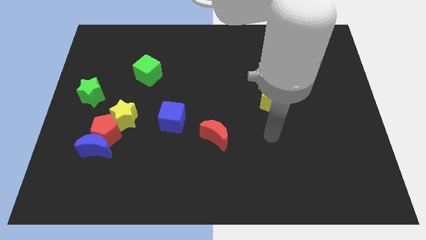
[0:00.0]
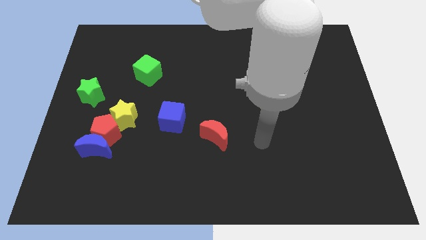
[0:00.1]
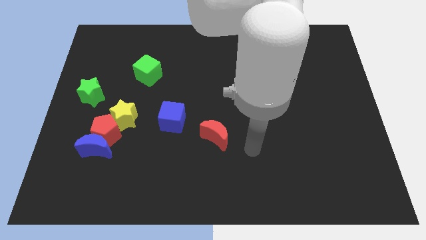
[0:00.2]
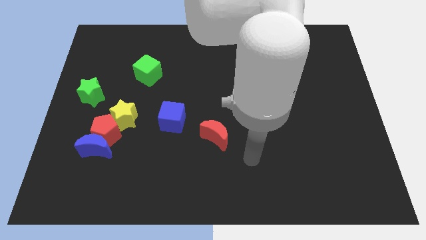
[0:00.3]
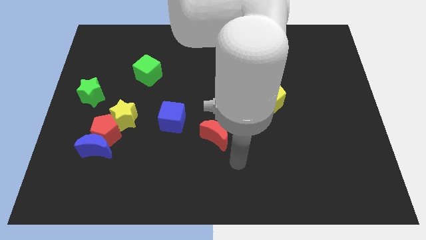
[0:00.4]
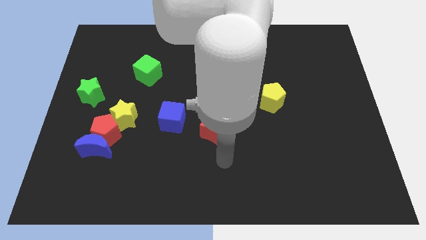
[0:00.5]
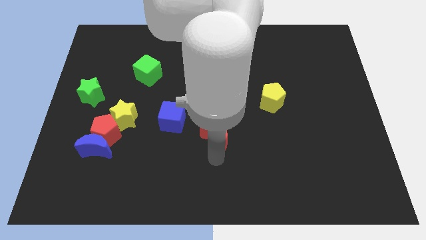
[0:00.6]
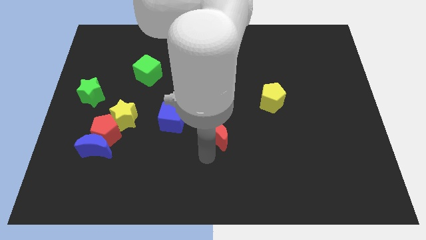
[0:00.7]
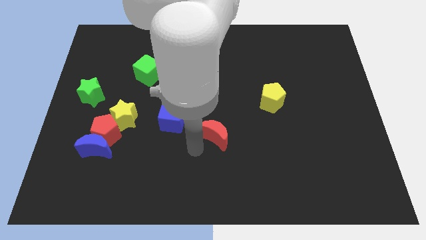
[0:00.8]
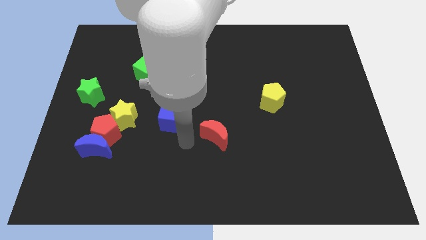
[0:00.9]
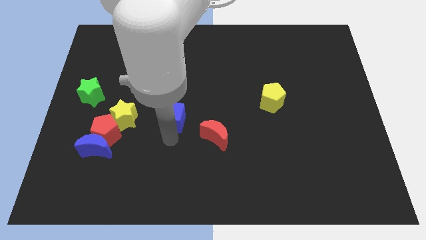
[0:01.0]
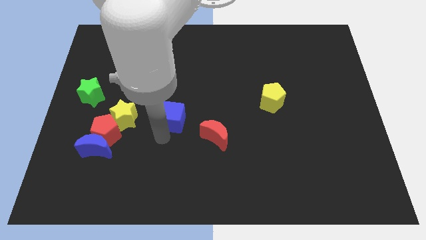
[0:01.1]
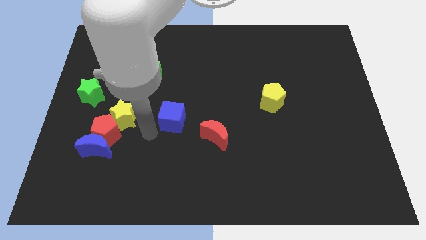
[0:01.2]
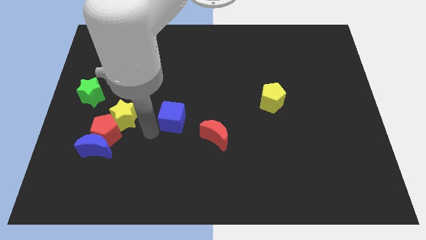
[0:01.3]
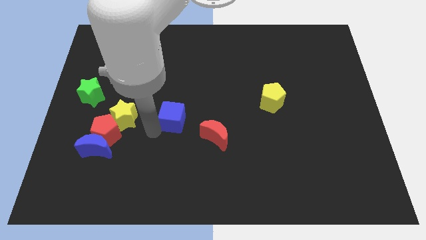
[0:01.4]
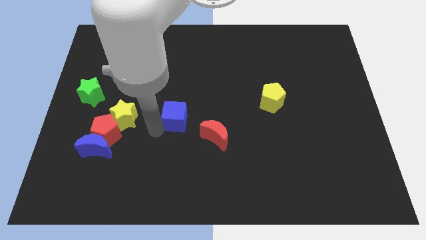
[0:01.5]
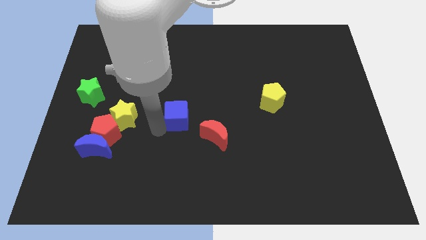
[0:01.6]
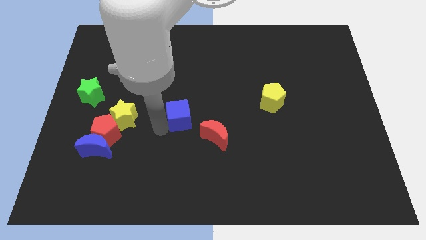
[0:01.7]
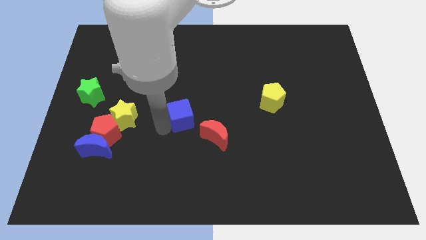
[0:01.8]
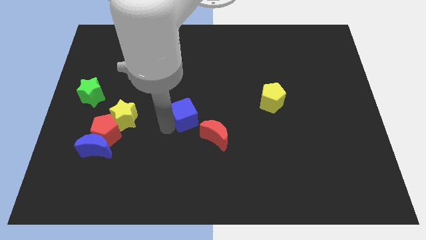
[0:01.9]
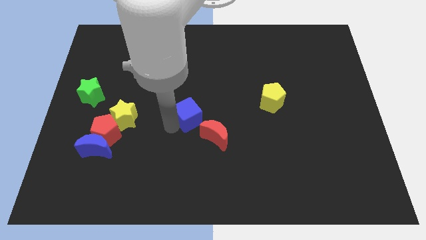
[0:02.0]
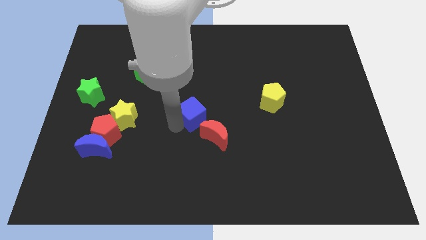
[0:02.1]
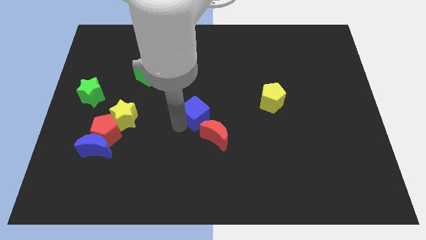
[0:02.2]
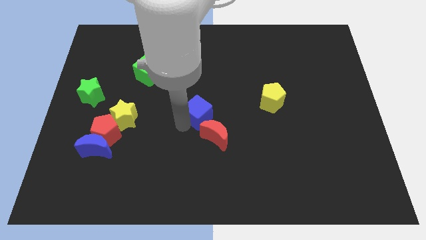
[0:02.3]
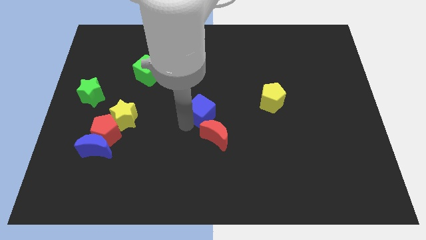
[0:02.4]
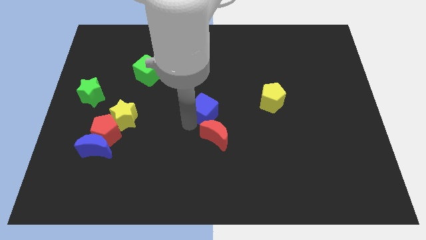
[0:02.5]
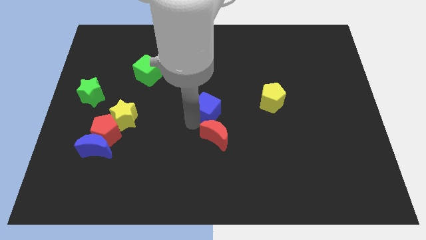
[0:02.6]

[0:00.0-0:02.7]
move the blue cube a little up and to the right diagonally

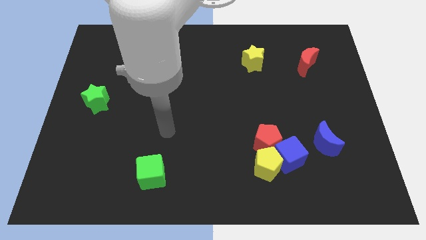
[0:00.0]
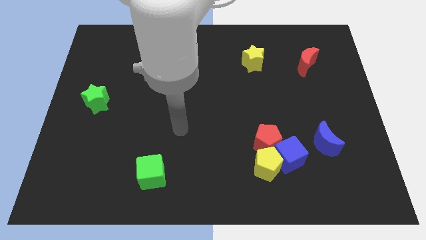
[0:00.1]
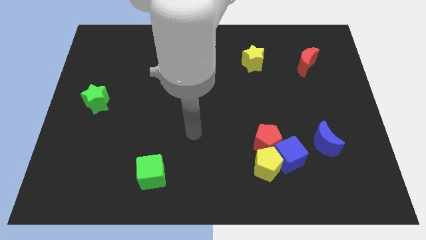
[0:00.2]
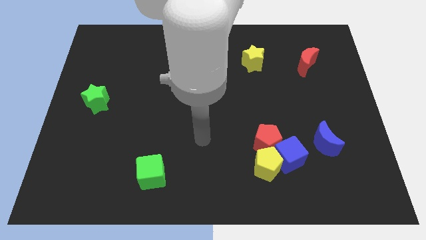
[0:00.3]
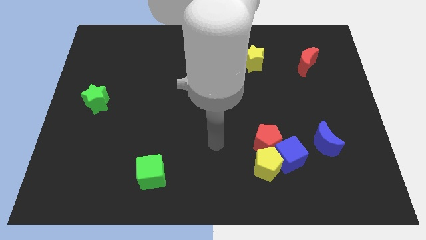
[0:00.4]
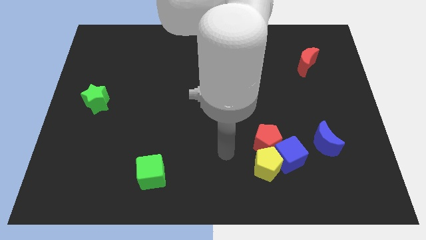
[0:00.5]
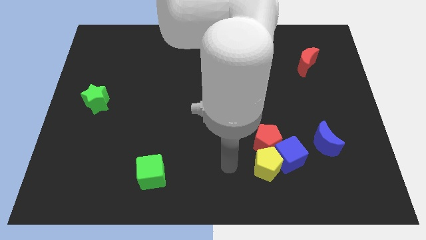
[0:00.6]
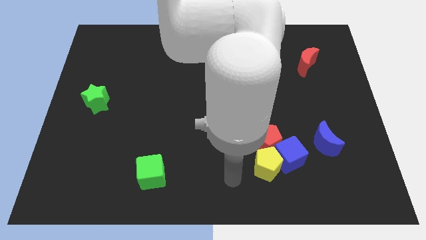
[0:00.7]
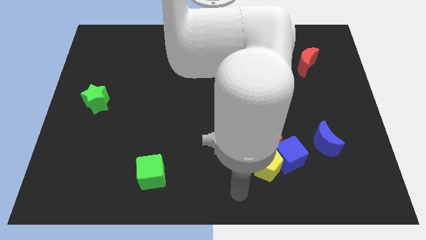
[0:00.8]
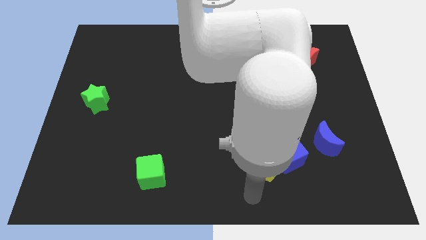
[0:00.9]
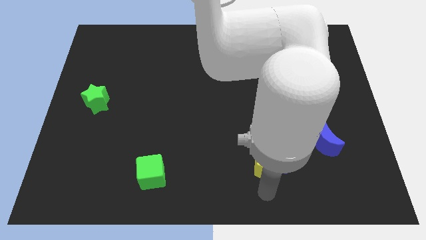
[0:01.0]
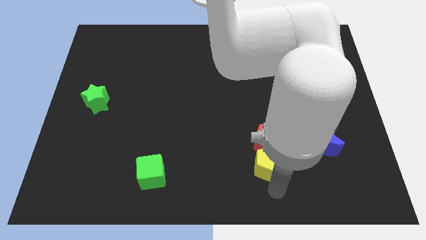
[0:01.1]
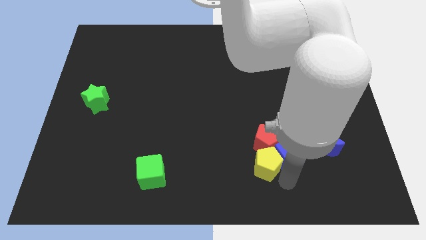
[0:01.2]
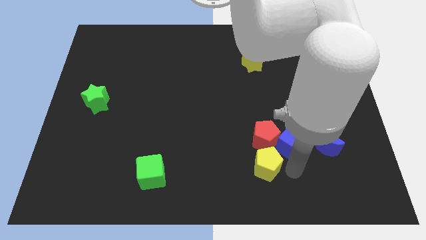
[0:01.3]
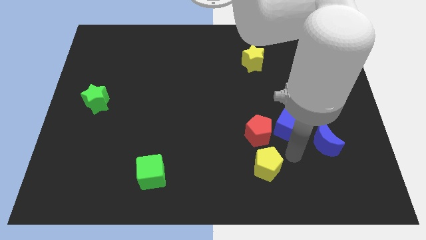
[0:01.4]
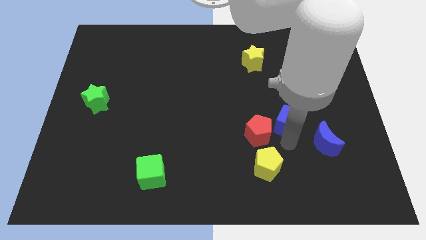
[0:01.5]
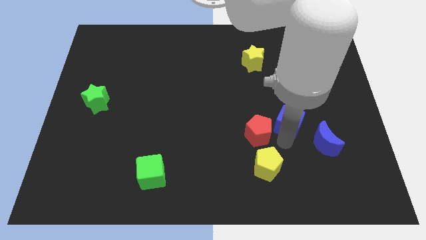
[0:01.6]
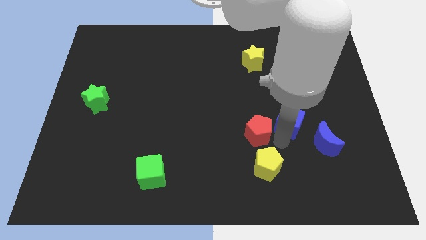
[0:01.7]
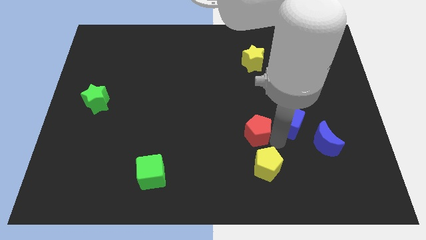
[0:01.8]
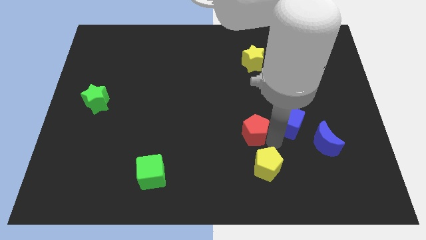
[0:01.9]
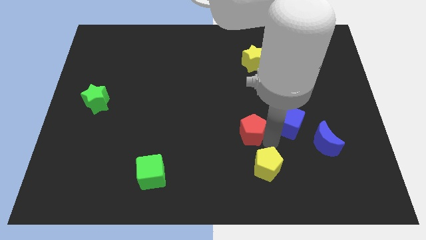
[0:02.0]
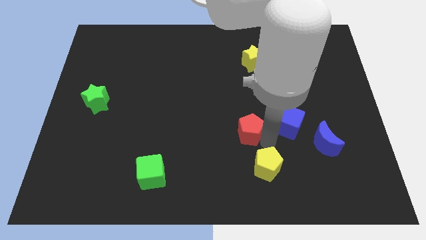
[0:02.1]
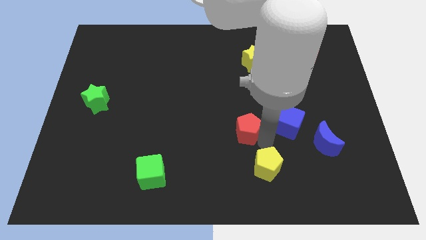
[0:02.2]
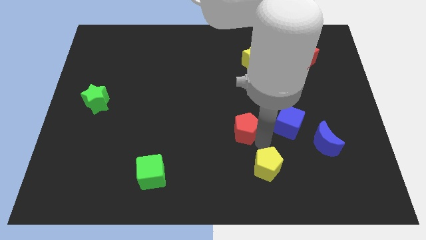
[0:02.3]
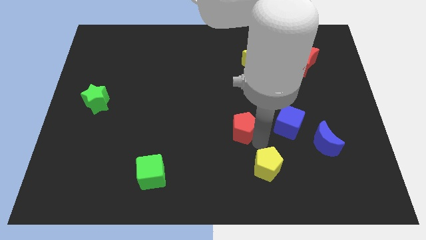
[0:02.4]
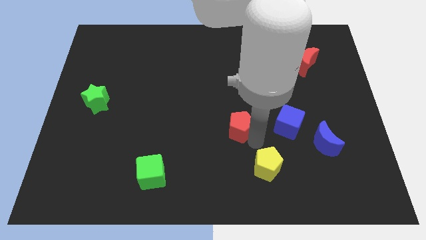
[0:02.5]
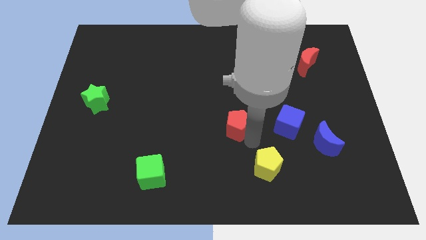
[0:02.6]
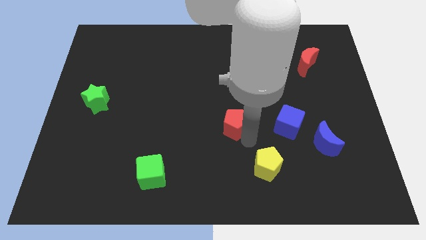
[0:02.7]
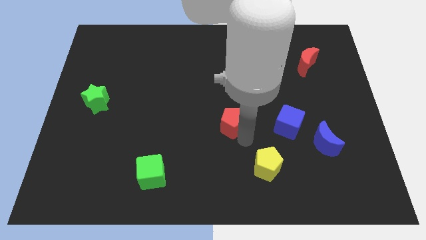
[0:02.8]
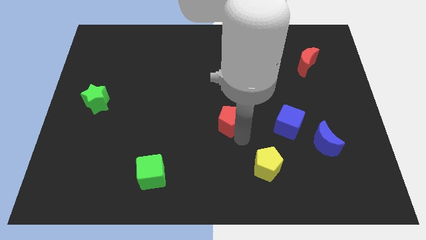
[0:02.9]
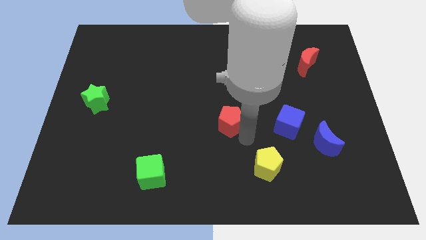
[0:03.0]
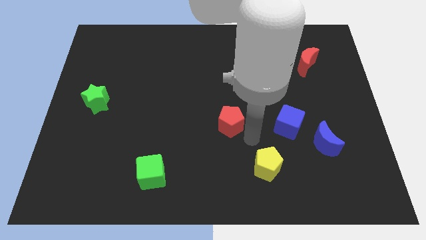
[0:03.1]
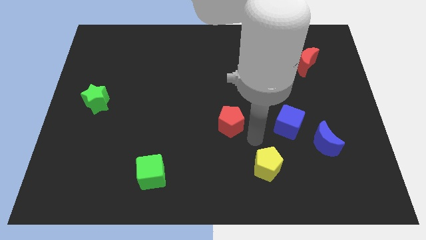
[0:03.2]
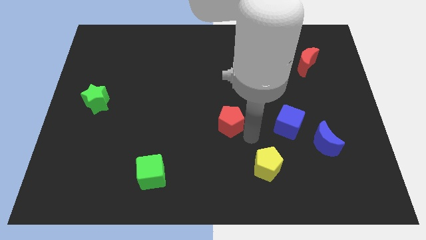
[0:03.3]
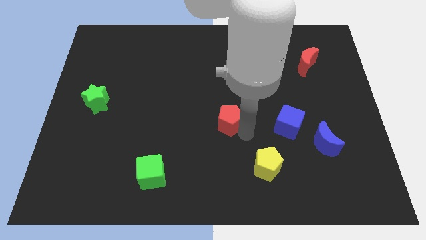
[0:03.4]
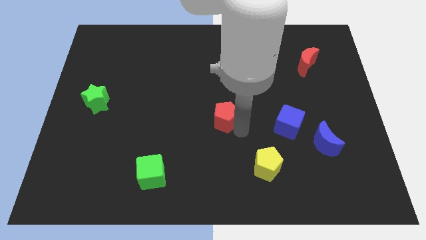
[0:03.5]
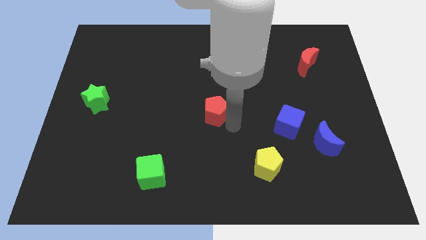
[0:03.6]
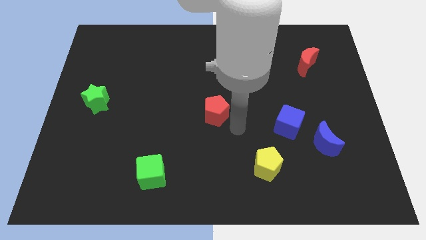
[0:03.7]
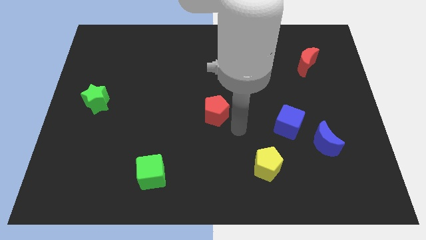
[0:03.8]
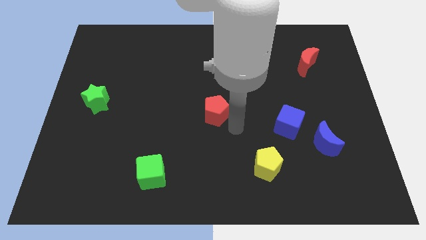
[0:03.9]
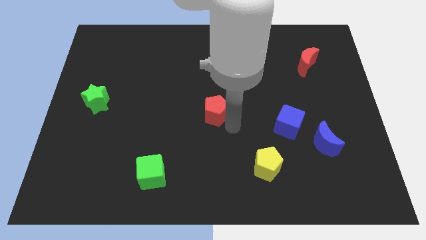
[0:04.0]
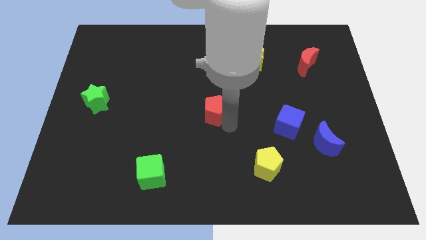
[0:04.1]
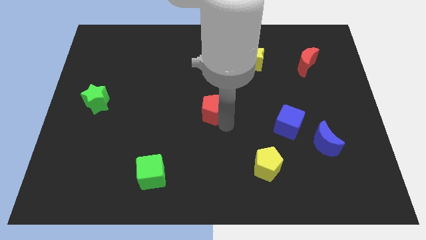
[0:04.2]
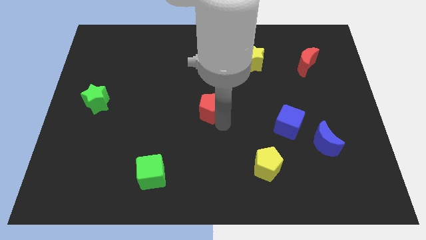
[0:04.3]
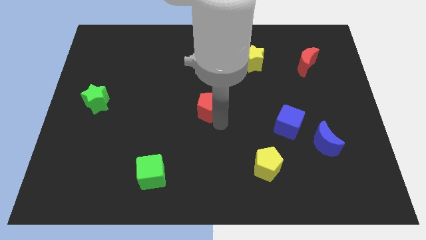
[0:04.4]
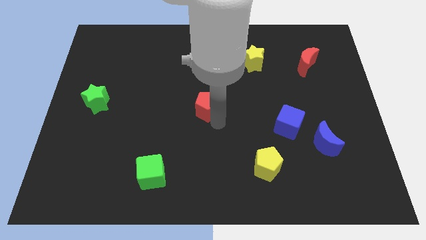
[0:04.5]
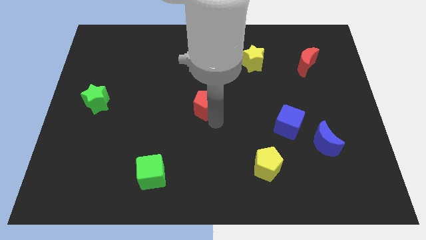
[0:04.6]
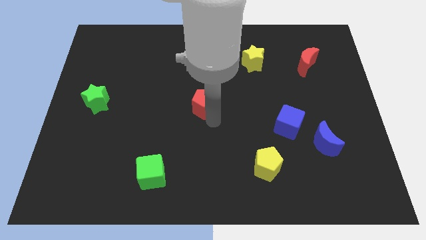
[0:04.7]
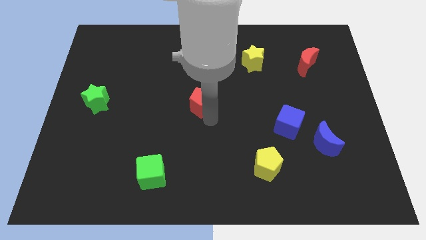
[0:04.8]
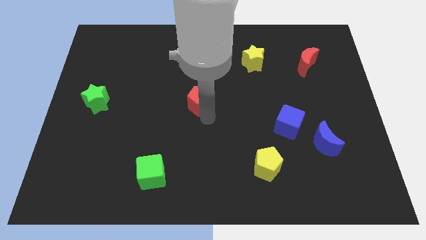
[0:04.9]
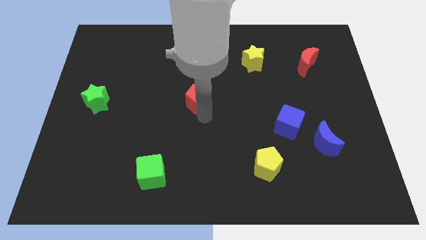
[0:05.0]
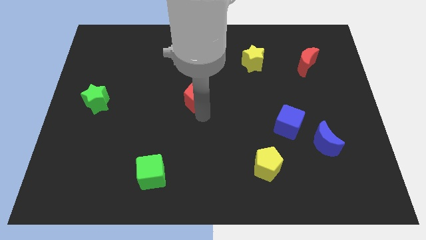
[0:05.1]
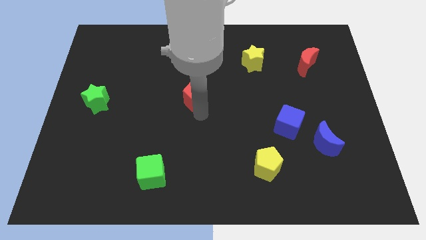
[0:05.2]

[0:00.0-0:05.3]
slide the red pentagon upwards and left diagonally
